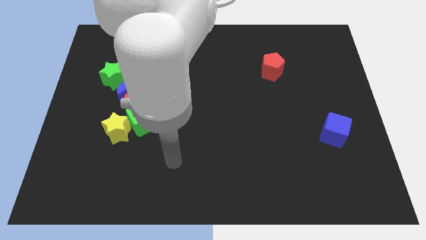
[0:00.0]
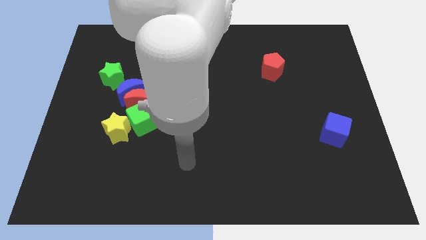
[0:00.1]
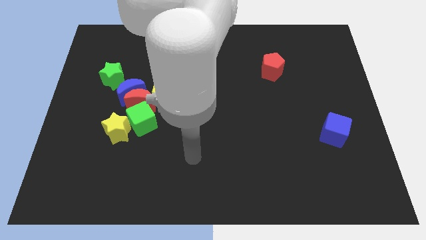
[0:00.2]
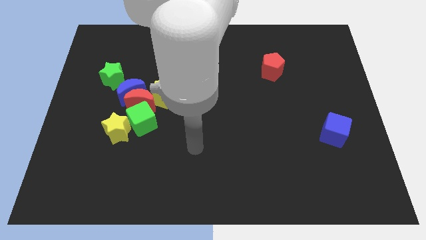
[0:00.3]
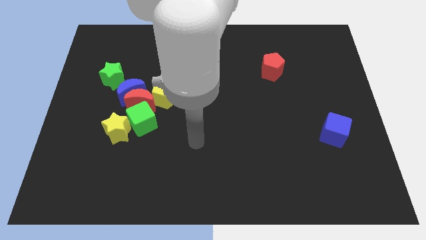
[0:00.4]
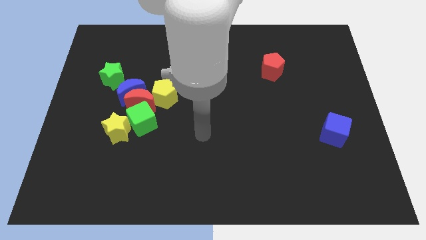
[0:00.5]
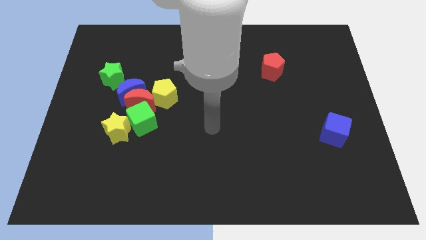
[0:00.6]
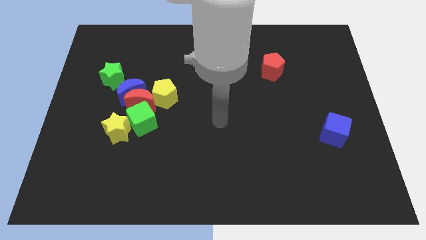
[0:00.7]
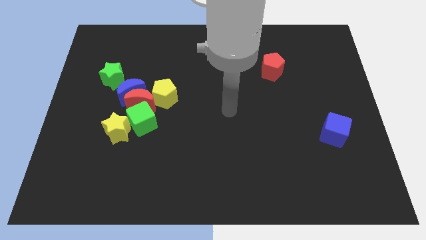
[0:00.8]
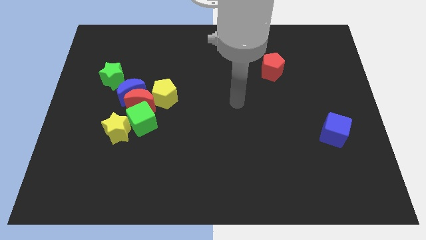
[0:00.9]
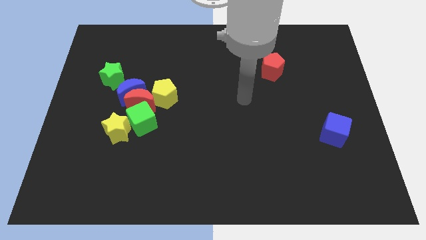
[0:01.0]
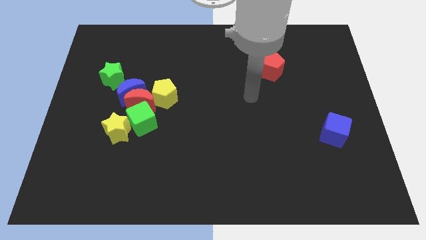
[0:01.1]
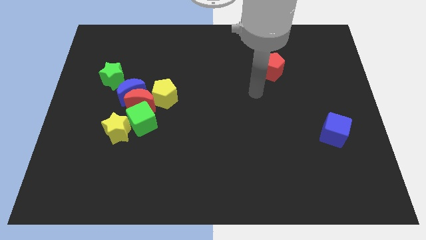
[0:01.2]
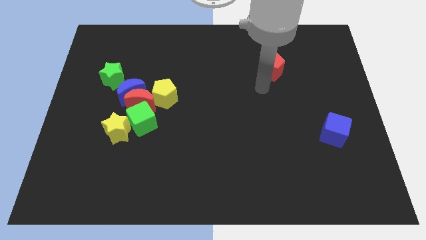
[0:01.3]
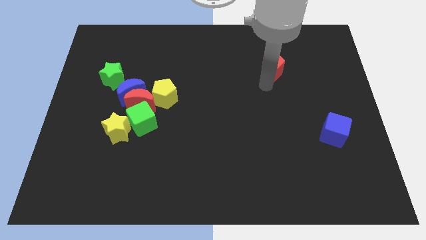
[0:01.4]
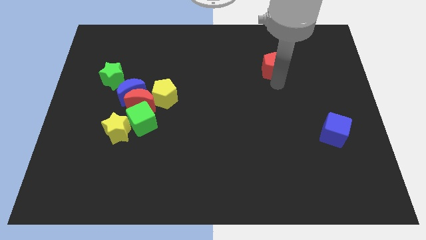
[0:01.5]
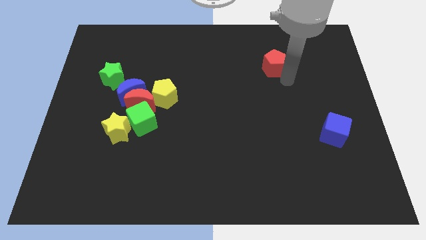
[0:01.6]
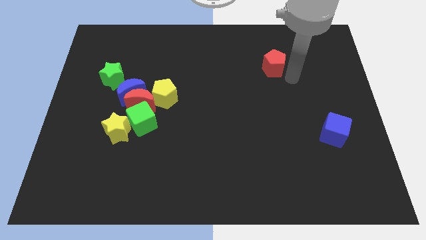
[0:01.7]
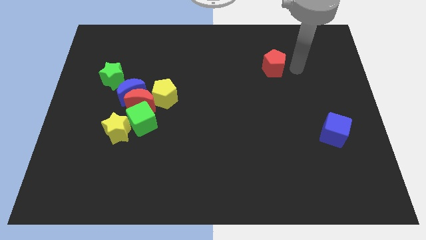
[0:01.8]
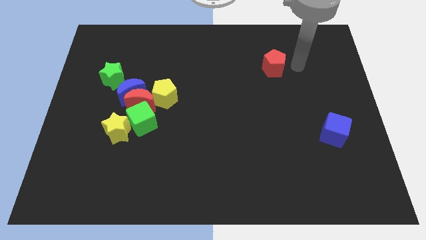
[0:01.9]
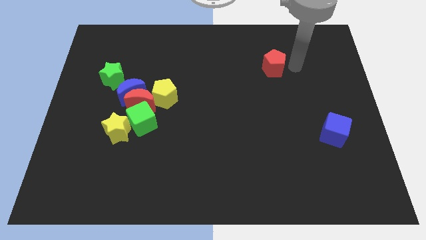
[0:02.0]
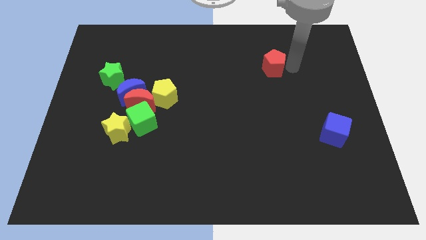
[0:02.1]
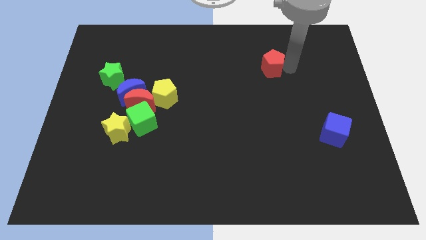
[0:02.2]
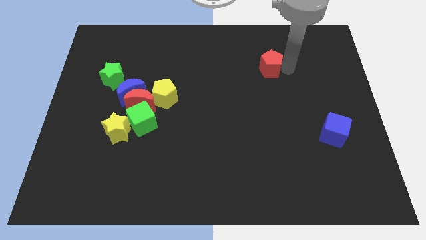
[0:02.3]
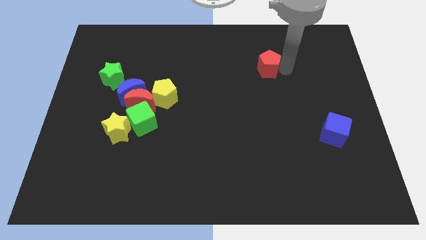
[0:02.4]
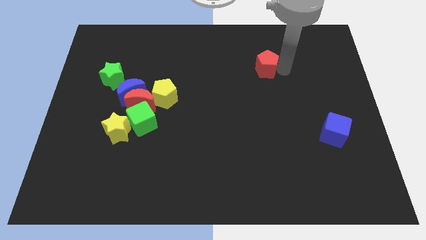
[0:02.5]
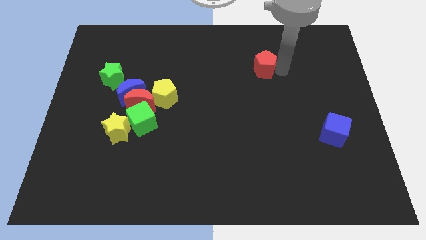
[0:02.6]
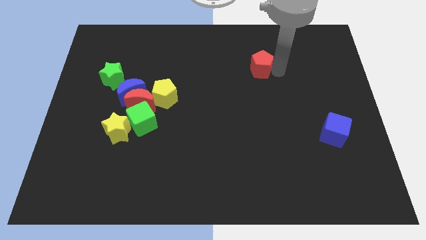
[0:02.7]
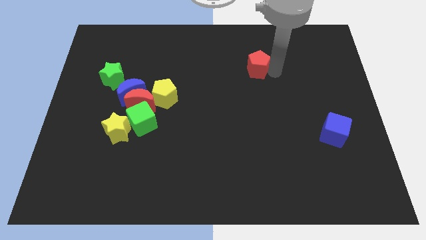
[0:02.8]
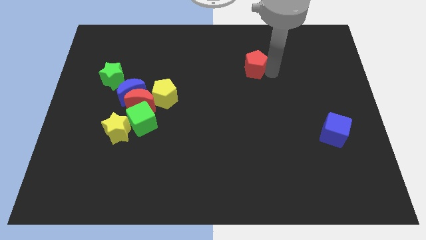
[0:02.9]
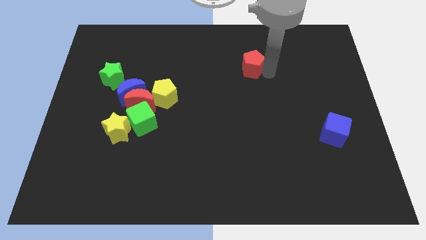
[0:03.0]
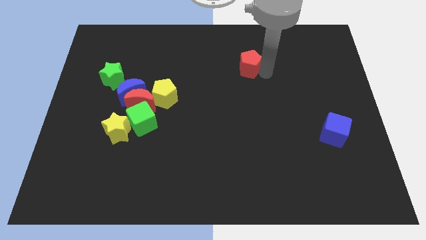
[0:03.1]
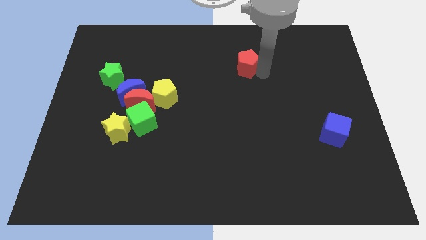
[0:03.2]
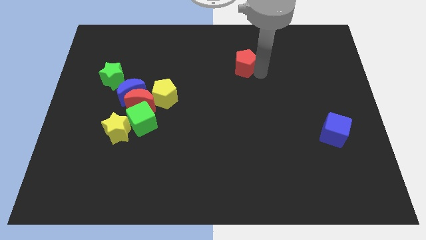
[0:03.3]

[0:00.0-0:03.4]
slide the red pentagon left somewhat

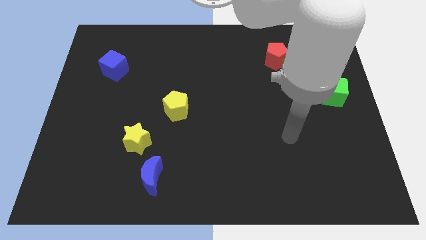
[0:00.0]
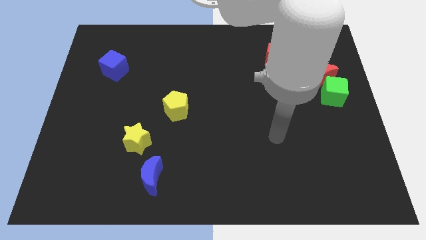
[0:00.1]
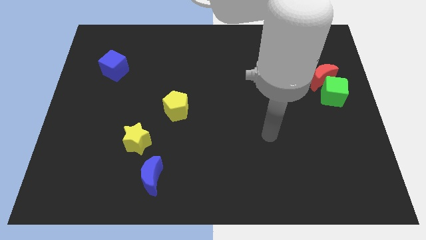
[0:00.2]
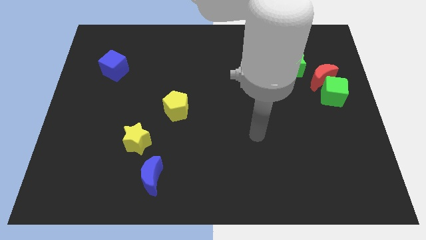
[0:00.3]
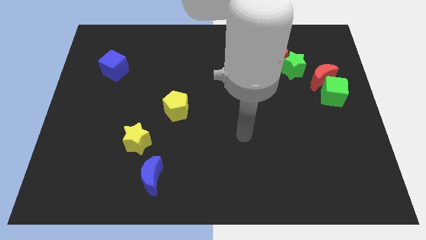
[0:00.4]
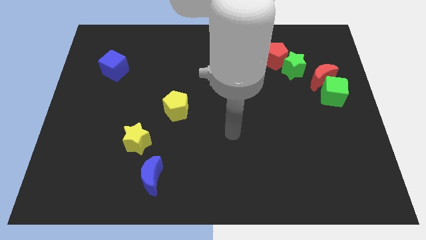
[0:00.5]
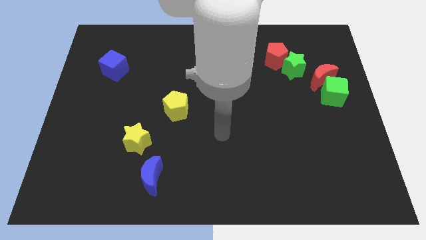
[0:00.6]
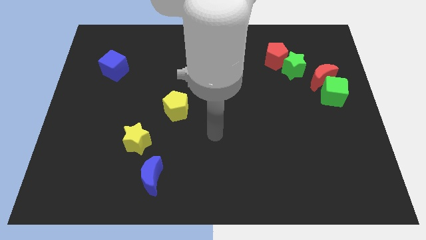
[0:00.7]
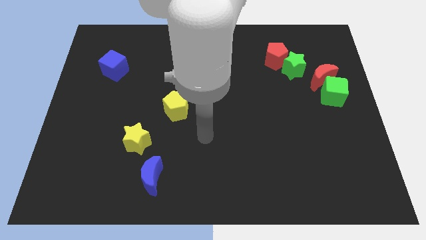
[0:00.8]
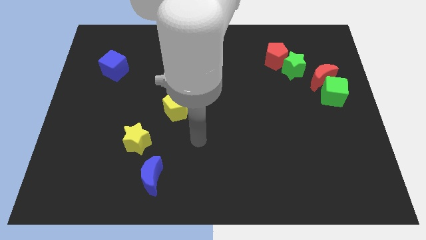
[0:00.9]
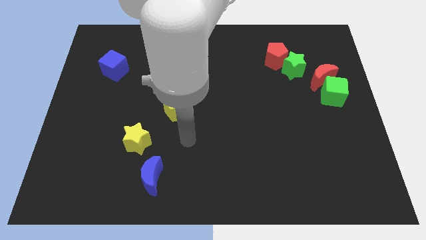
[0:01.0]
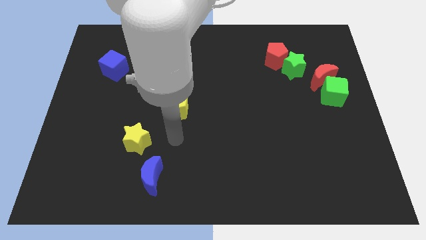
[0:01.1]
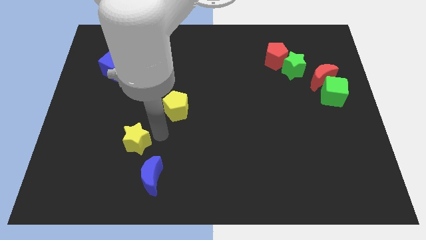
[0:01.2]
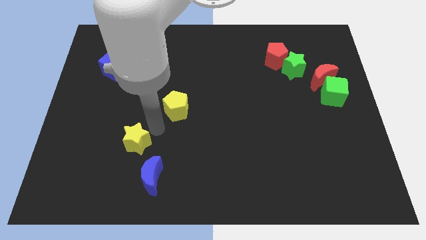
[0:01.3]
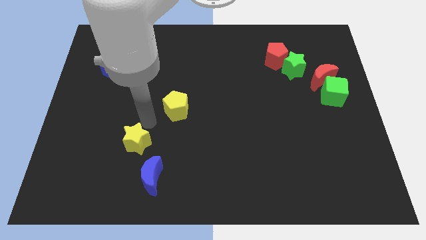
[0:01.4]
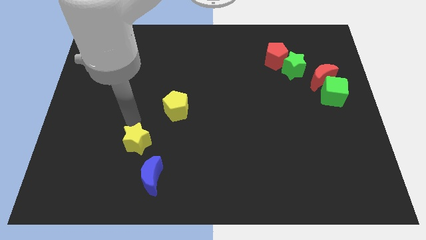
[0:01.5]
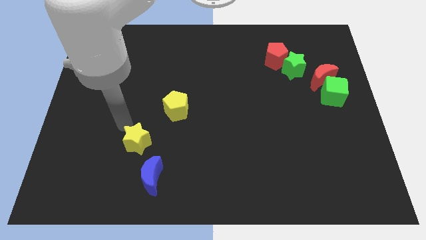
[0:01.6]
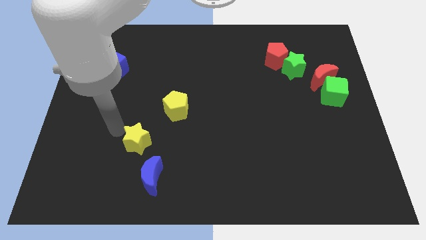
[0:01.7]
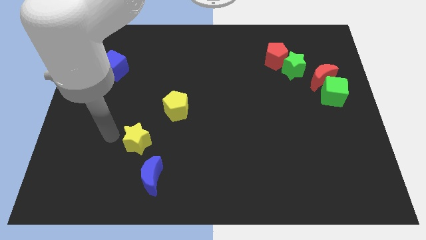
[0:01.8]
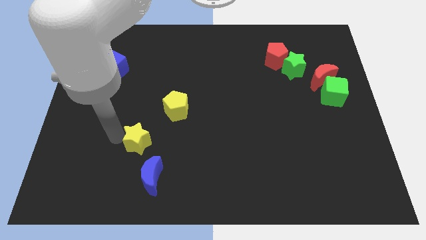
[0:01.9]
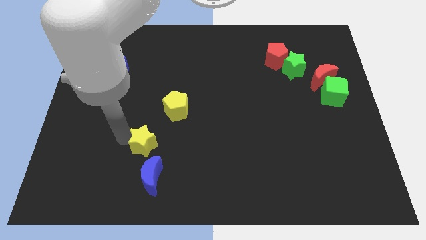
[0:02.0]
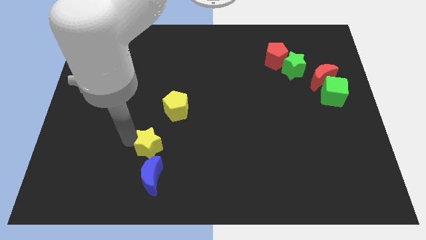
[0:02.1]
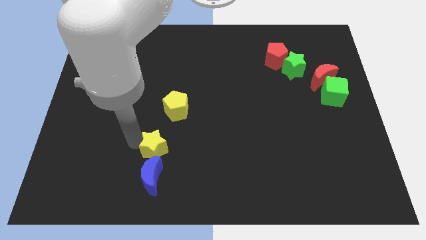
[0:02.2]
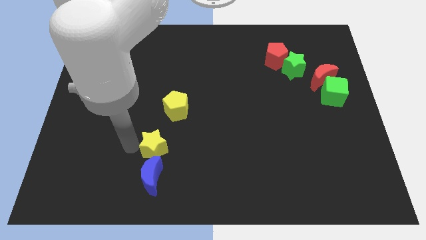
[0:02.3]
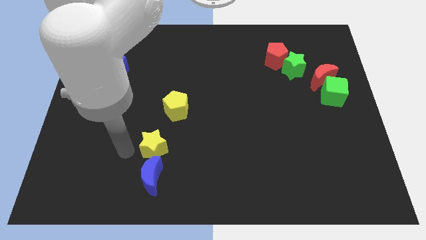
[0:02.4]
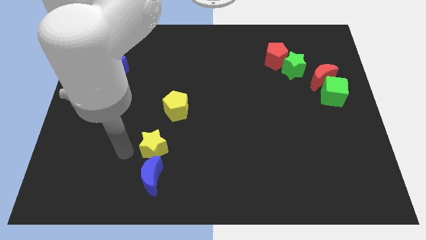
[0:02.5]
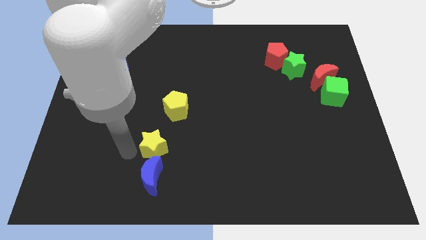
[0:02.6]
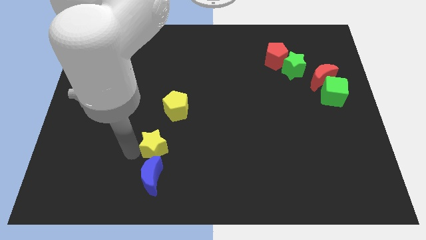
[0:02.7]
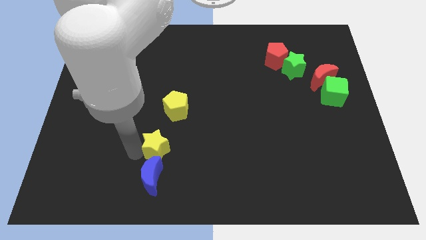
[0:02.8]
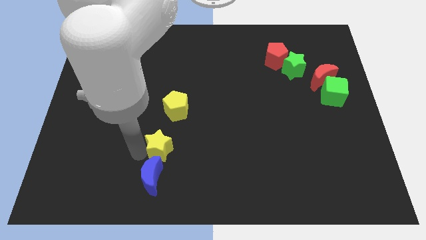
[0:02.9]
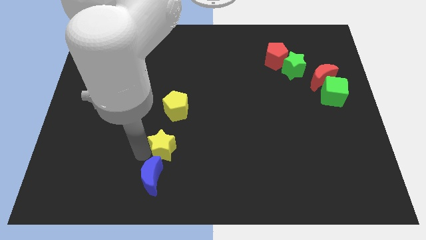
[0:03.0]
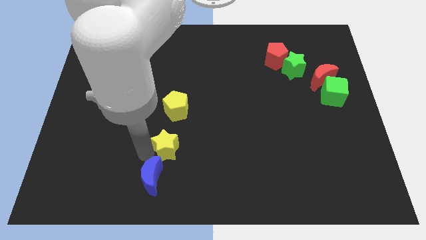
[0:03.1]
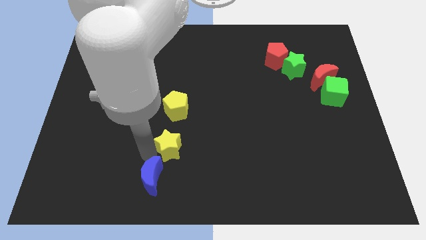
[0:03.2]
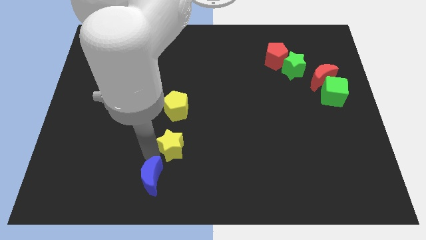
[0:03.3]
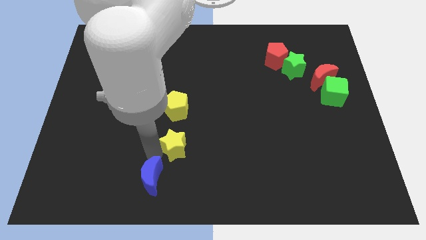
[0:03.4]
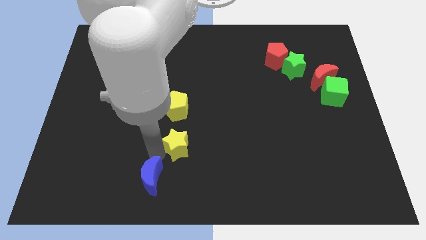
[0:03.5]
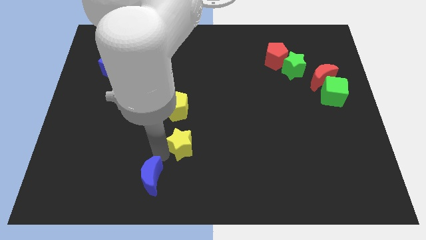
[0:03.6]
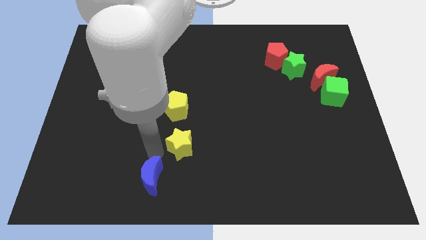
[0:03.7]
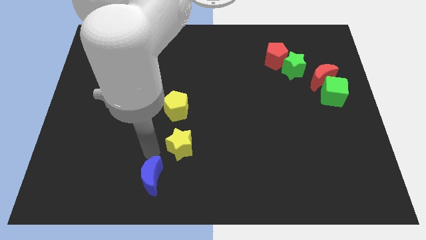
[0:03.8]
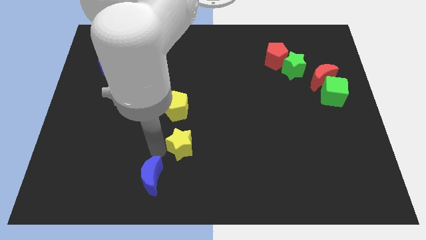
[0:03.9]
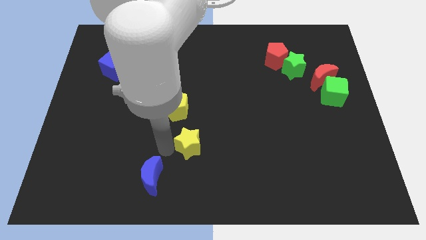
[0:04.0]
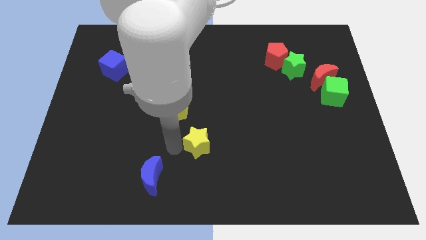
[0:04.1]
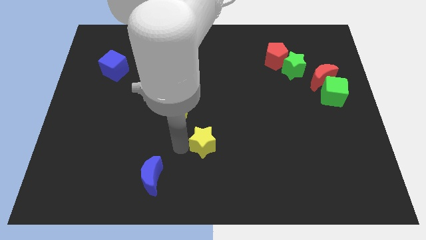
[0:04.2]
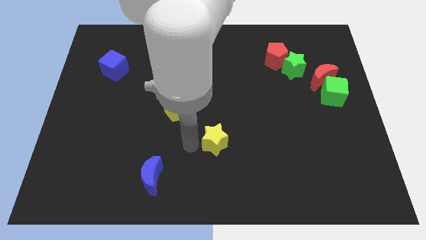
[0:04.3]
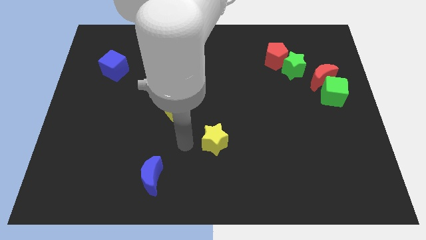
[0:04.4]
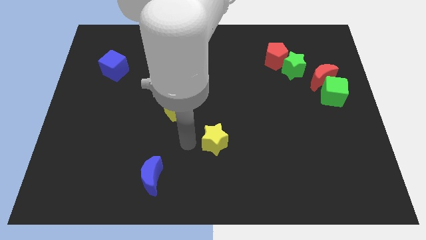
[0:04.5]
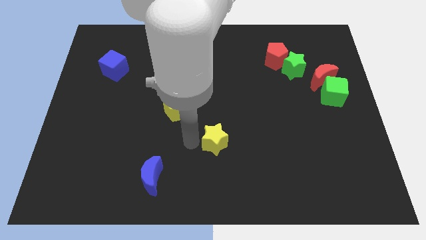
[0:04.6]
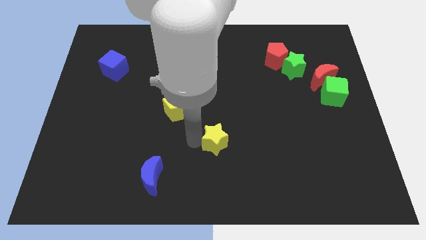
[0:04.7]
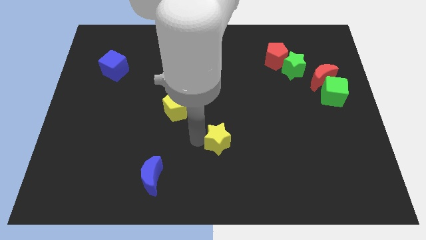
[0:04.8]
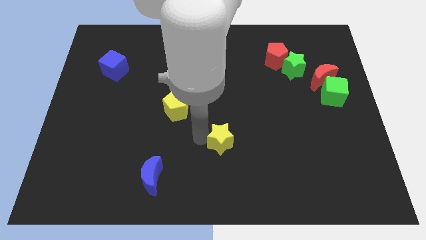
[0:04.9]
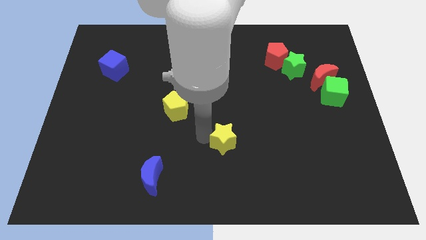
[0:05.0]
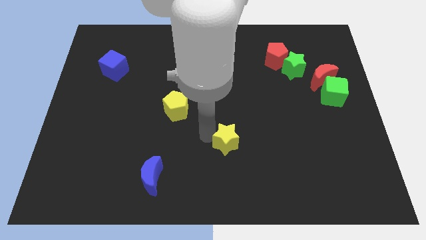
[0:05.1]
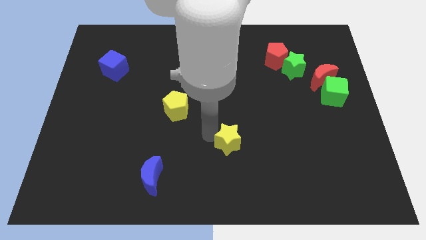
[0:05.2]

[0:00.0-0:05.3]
slide the yellow star to the right
